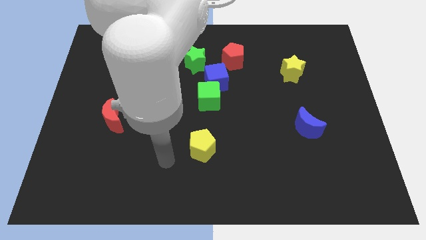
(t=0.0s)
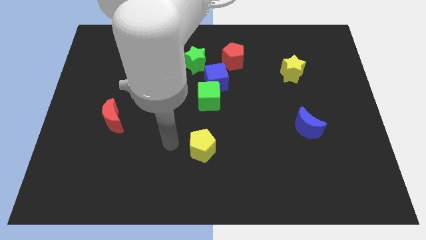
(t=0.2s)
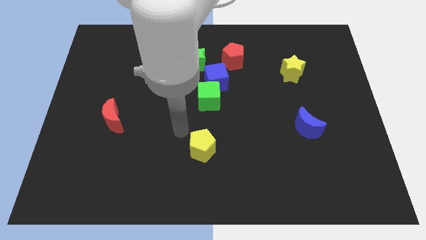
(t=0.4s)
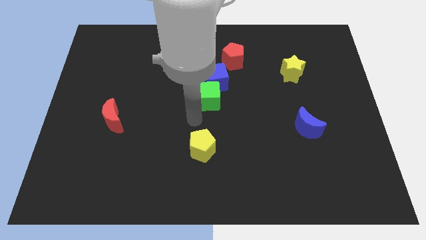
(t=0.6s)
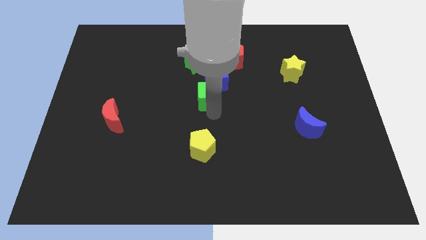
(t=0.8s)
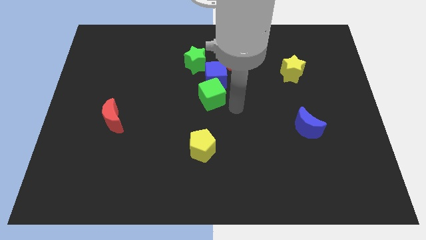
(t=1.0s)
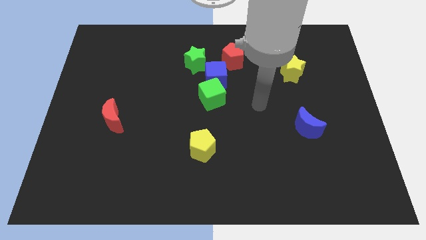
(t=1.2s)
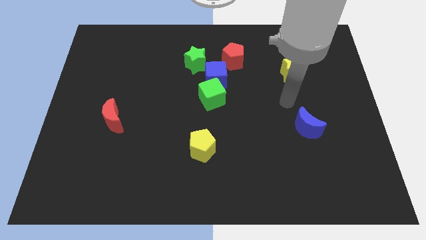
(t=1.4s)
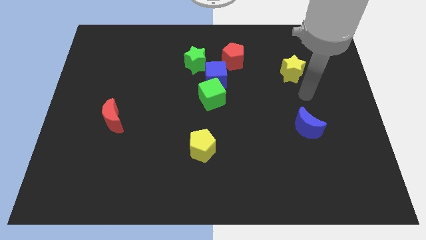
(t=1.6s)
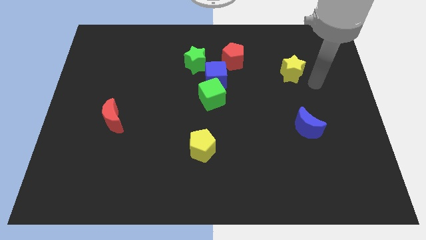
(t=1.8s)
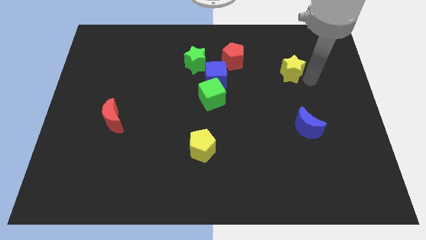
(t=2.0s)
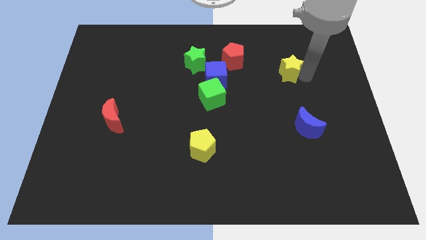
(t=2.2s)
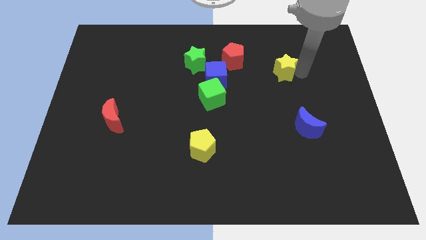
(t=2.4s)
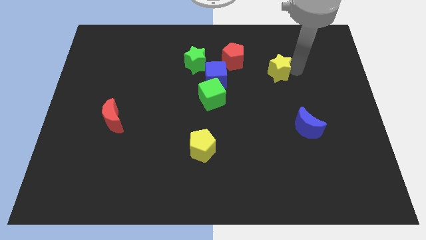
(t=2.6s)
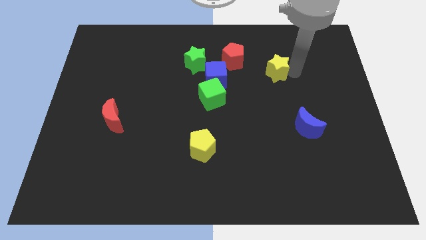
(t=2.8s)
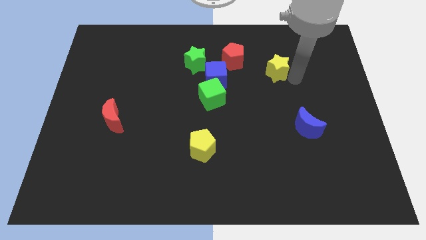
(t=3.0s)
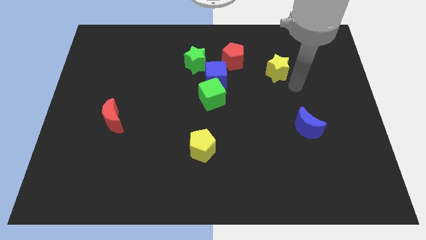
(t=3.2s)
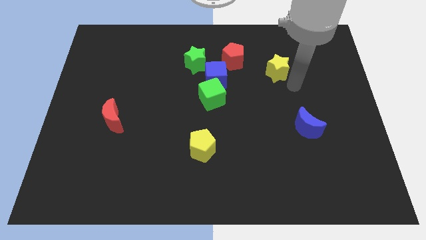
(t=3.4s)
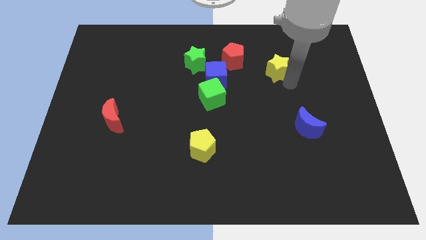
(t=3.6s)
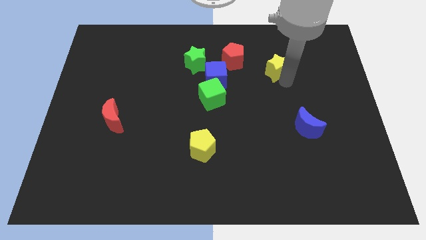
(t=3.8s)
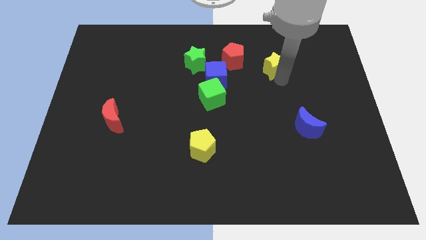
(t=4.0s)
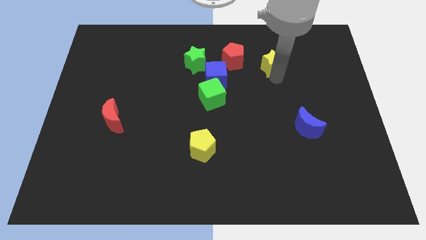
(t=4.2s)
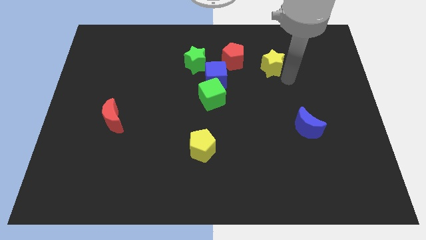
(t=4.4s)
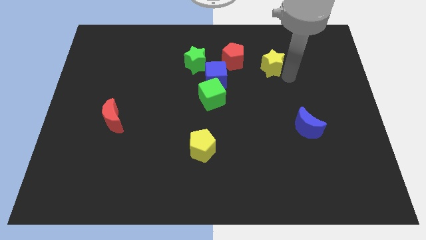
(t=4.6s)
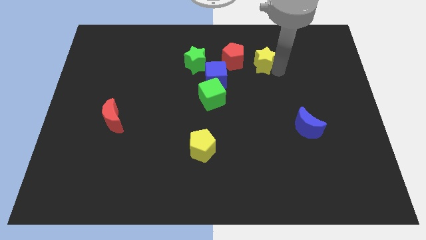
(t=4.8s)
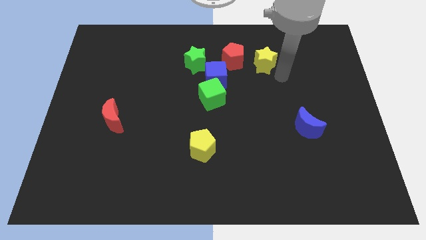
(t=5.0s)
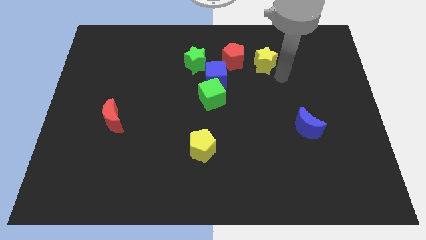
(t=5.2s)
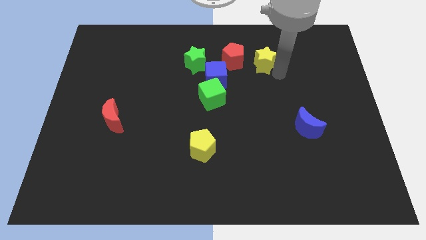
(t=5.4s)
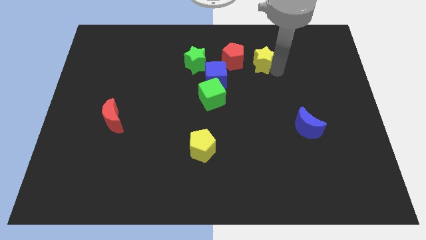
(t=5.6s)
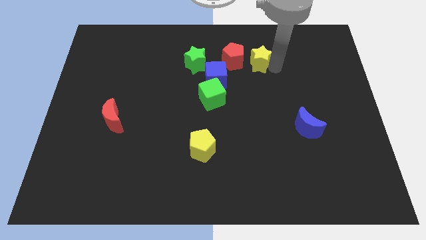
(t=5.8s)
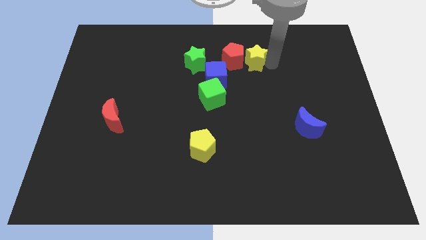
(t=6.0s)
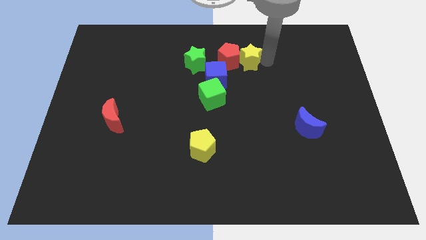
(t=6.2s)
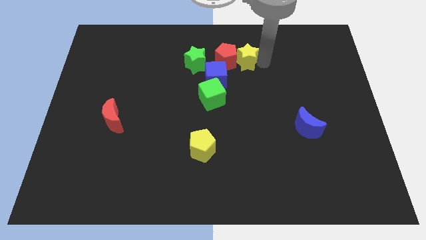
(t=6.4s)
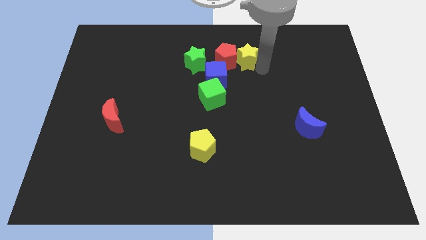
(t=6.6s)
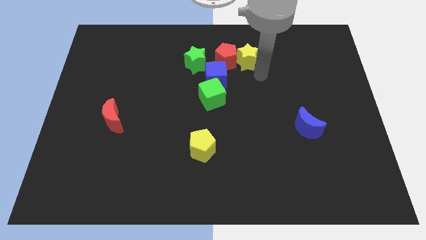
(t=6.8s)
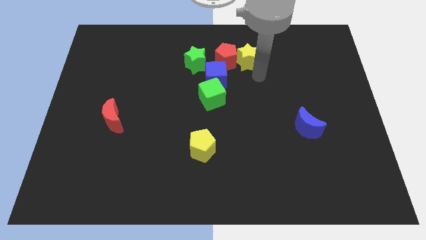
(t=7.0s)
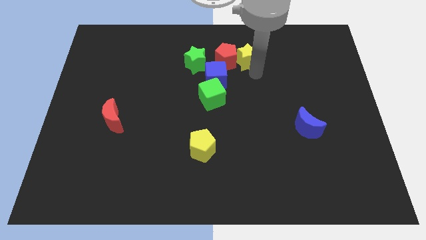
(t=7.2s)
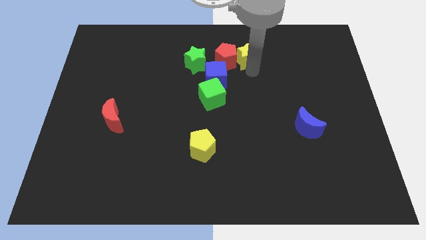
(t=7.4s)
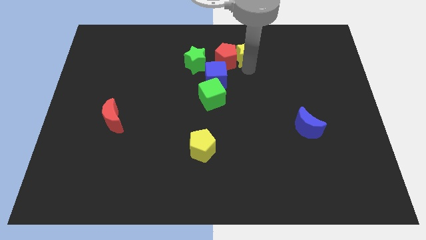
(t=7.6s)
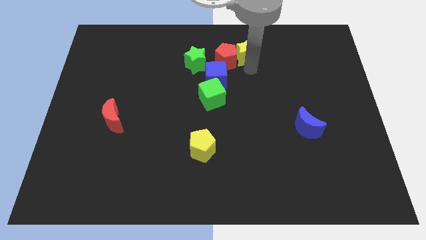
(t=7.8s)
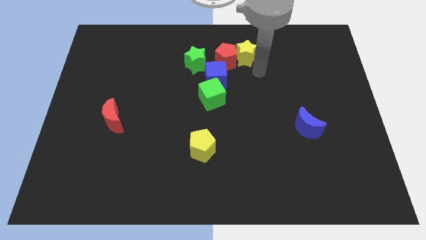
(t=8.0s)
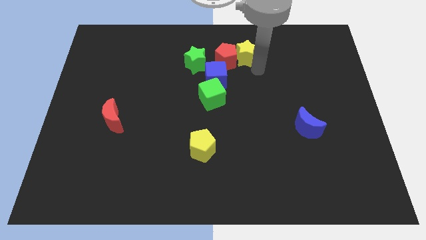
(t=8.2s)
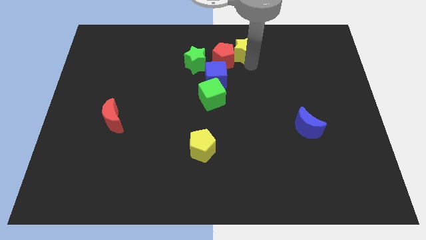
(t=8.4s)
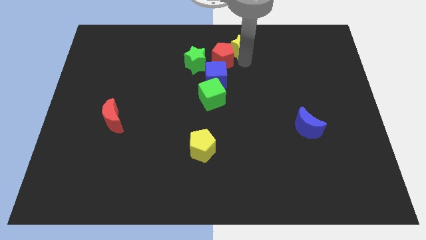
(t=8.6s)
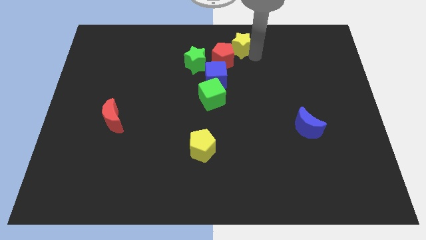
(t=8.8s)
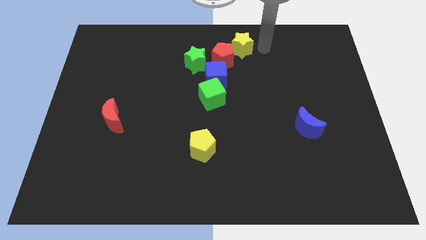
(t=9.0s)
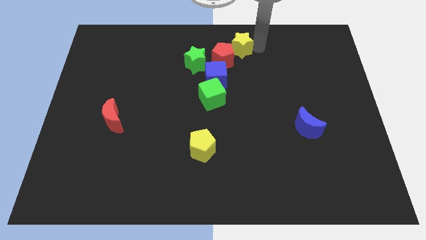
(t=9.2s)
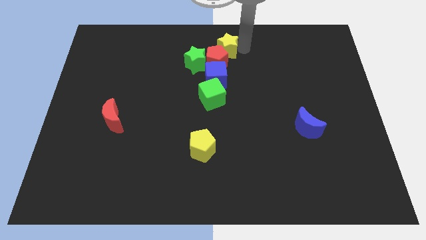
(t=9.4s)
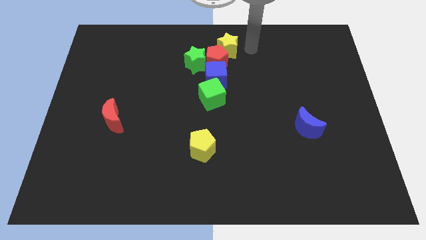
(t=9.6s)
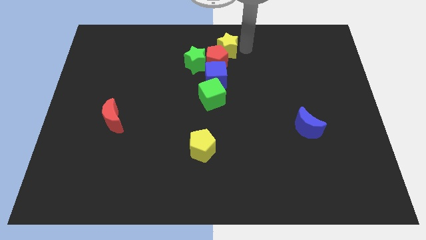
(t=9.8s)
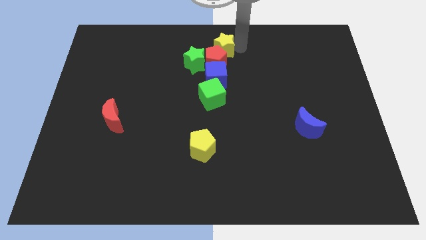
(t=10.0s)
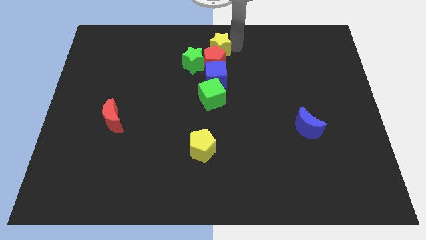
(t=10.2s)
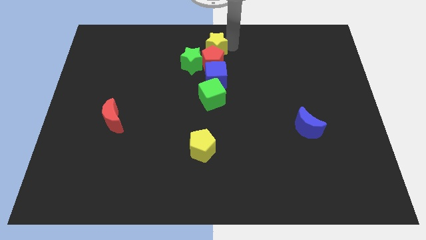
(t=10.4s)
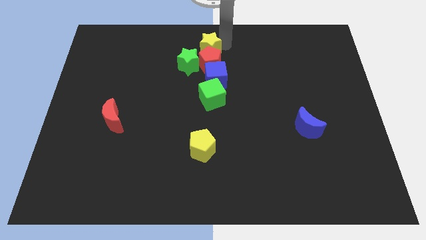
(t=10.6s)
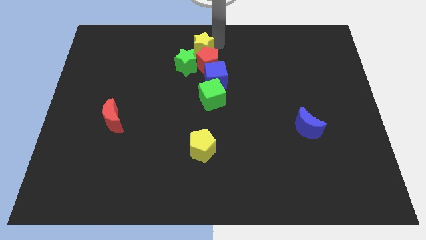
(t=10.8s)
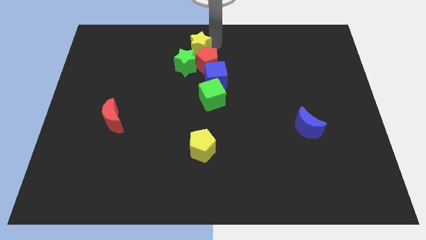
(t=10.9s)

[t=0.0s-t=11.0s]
push the yellow star to the left

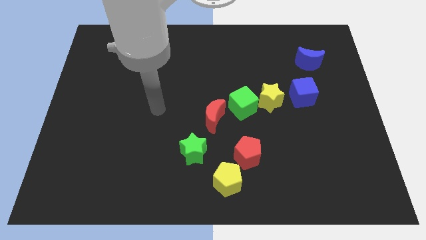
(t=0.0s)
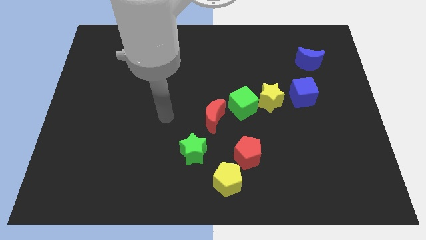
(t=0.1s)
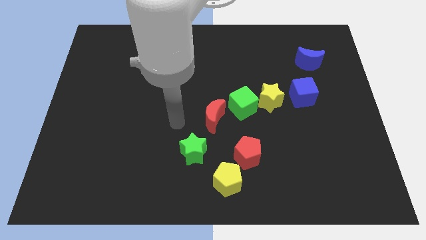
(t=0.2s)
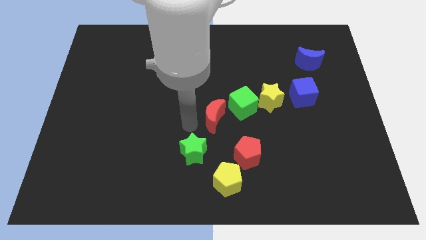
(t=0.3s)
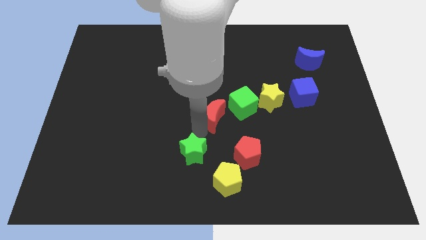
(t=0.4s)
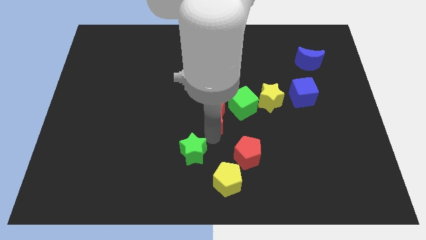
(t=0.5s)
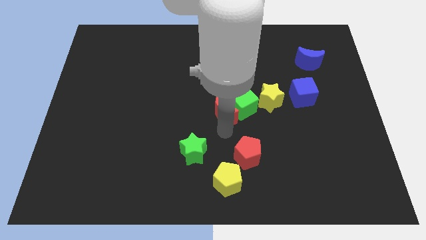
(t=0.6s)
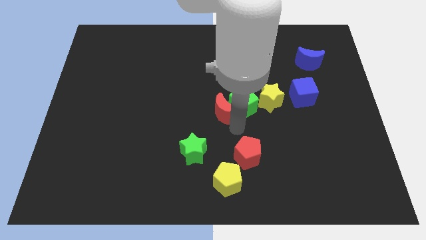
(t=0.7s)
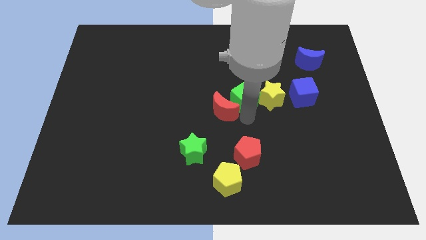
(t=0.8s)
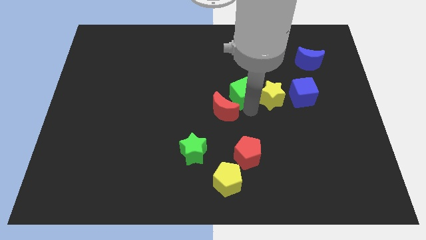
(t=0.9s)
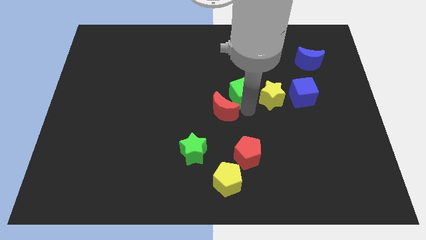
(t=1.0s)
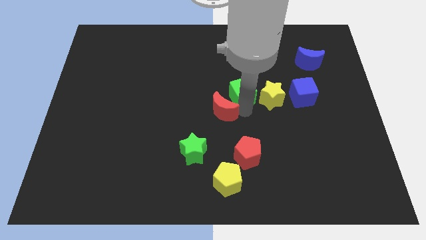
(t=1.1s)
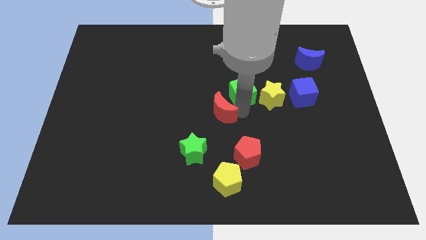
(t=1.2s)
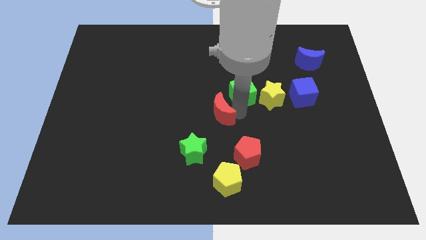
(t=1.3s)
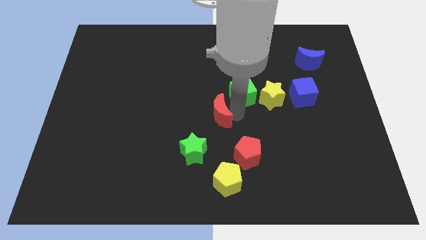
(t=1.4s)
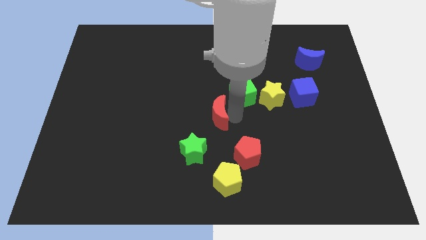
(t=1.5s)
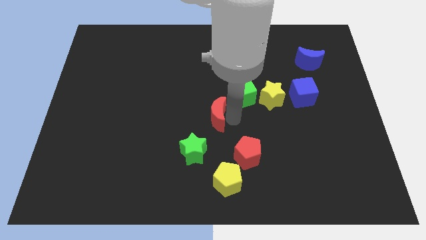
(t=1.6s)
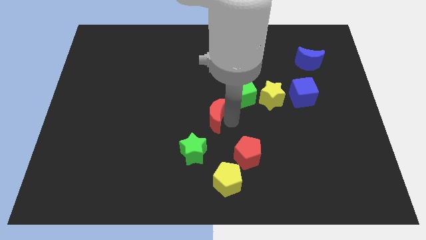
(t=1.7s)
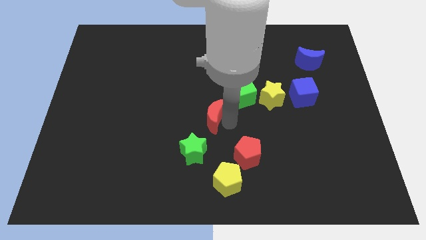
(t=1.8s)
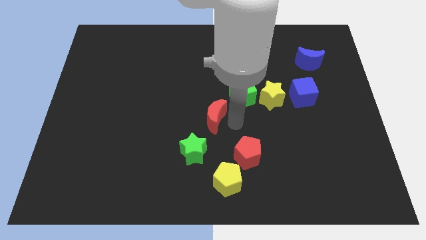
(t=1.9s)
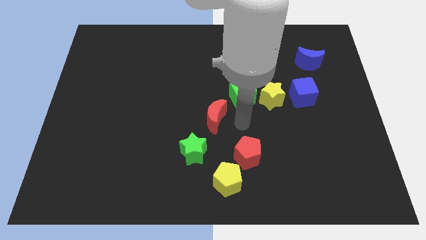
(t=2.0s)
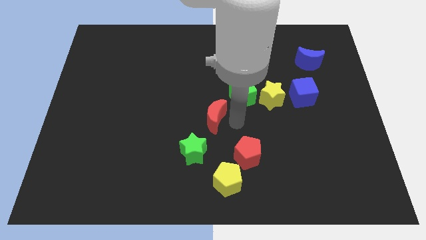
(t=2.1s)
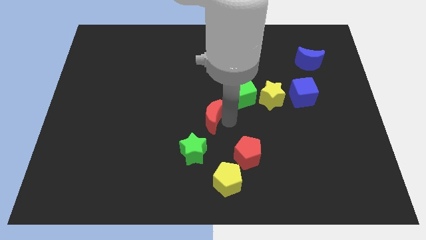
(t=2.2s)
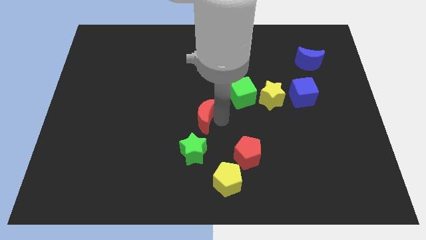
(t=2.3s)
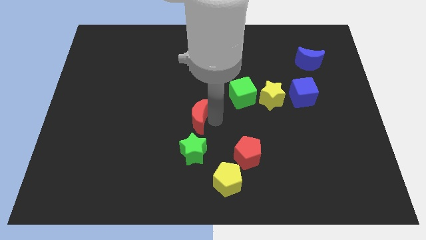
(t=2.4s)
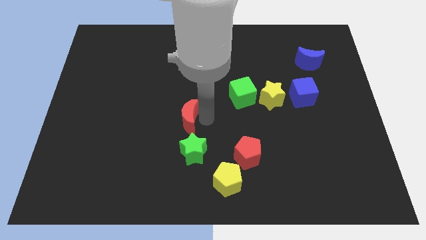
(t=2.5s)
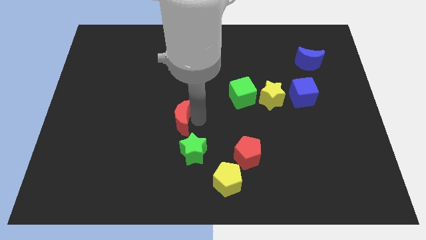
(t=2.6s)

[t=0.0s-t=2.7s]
move the red moon a bit left
